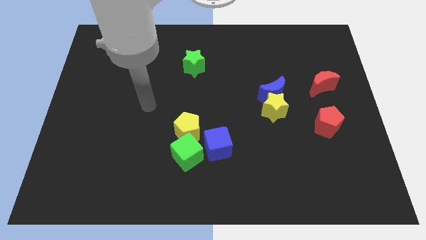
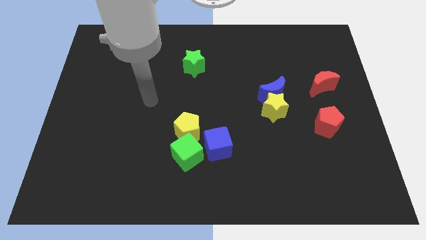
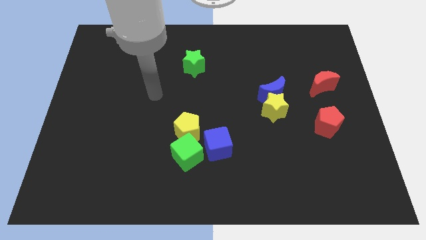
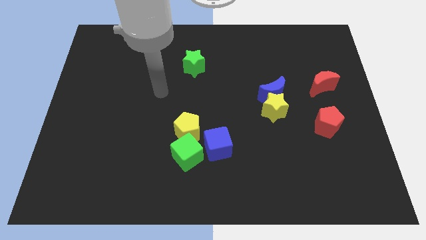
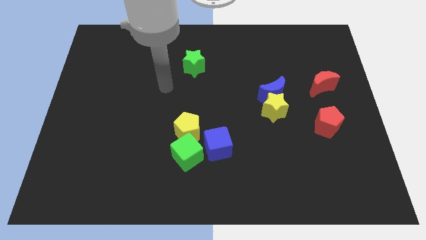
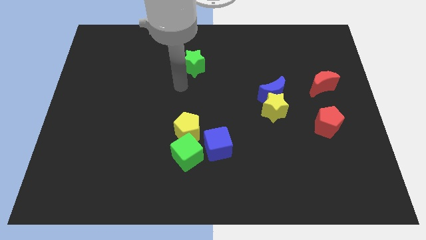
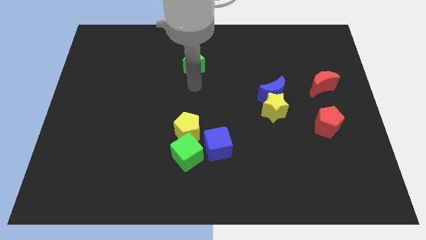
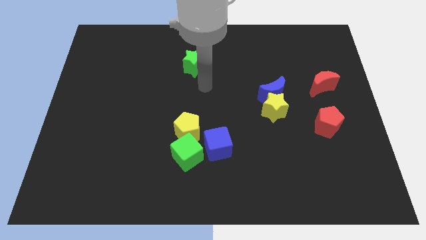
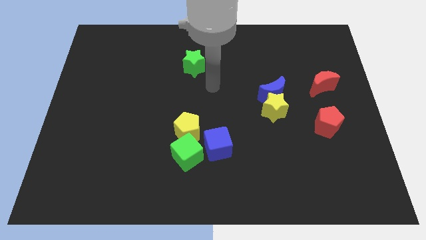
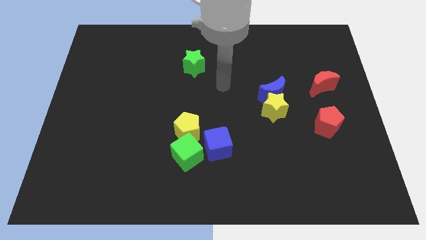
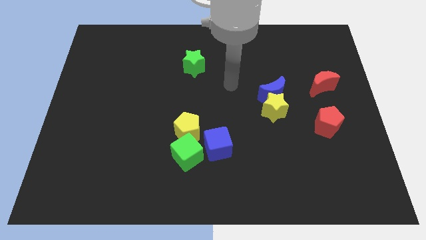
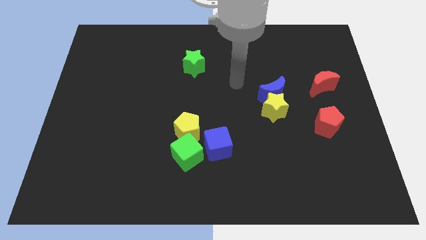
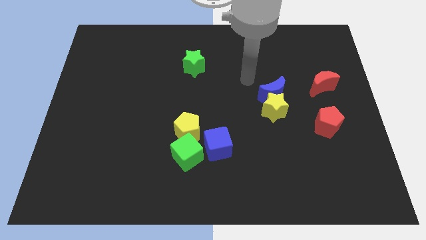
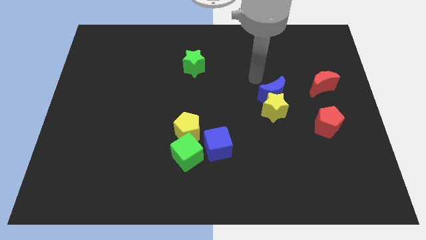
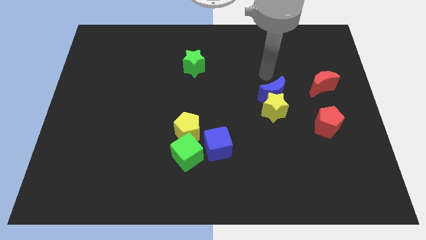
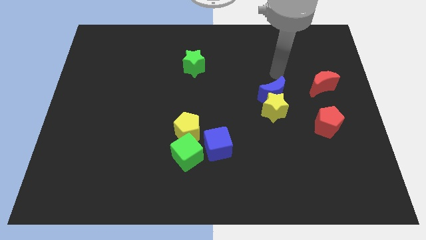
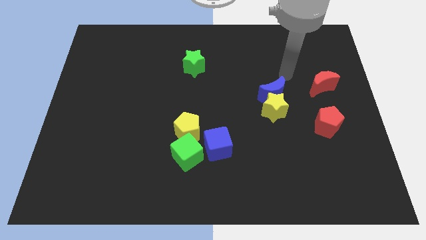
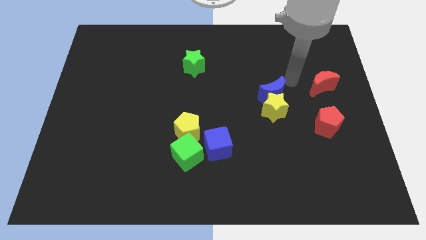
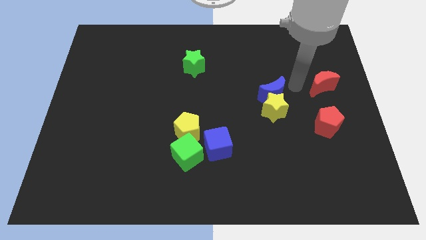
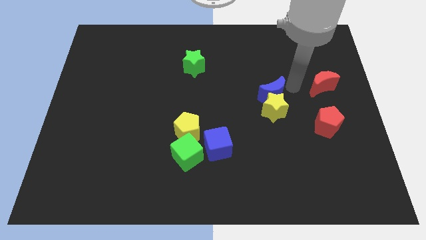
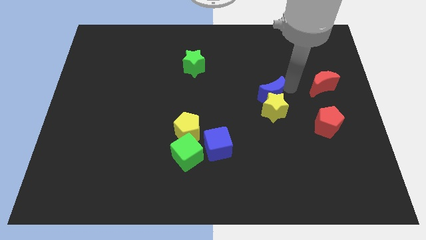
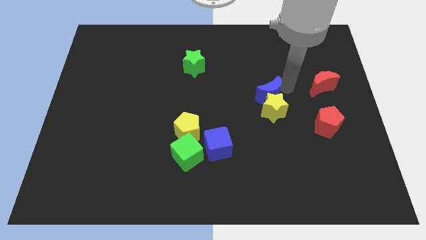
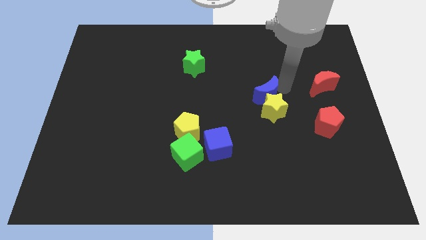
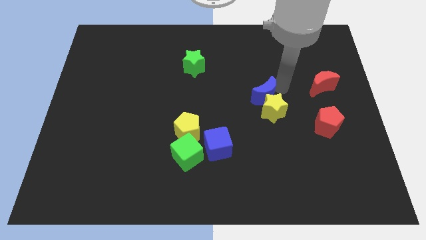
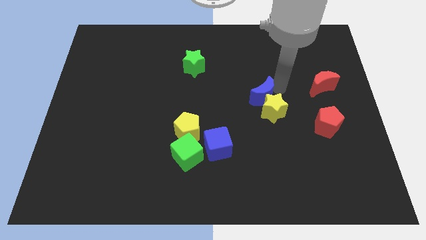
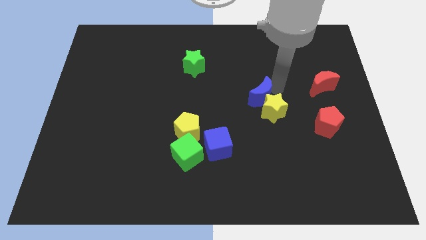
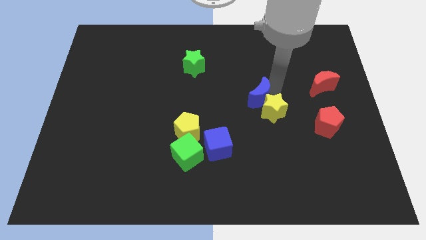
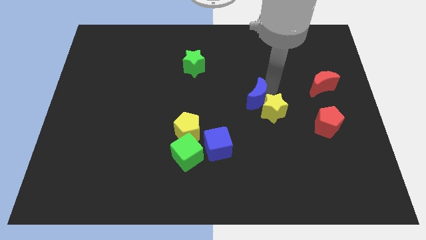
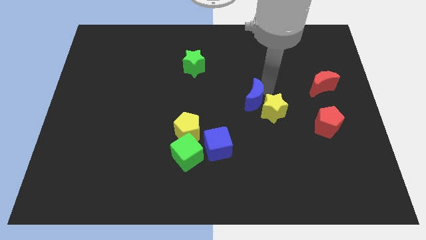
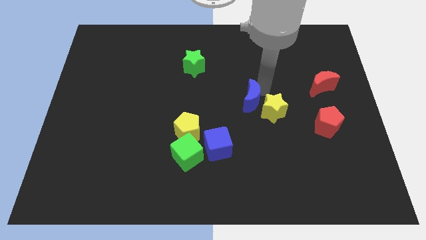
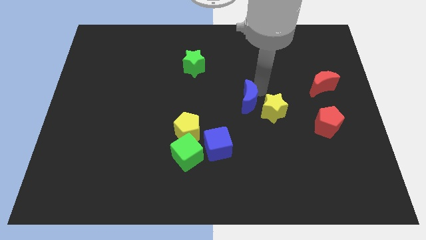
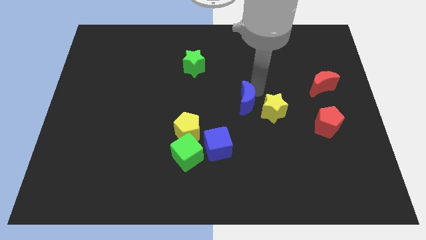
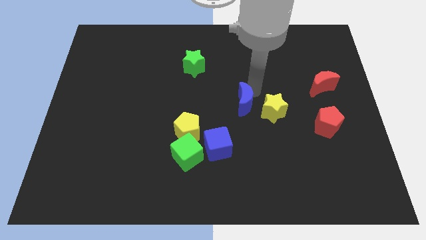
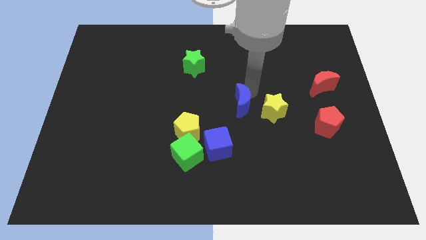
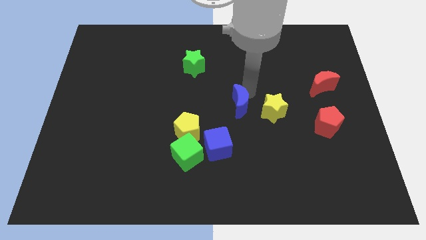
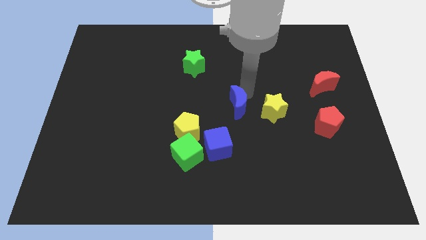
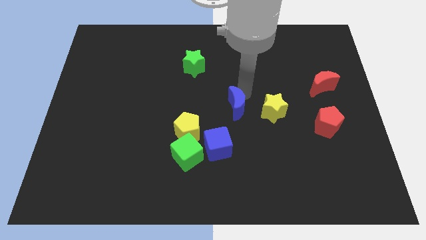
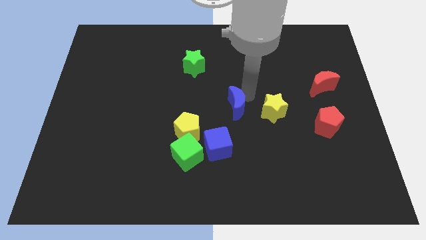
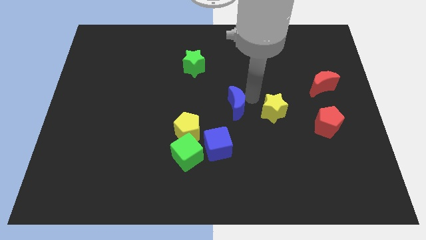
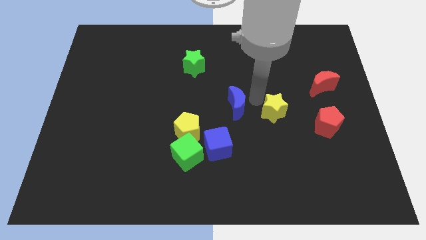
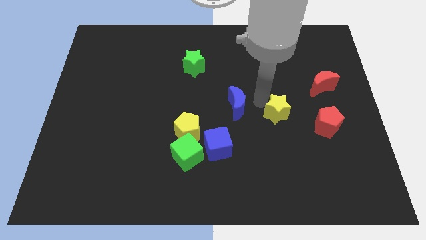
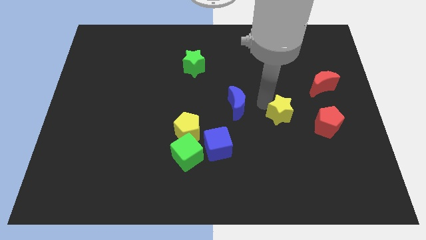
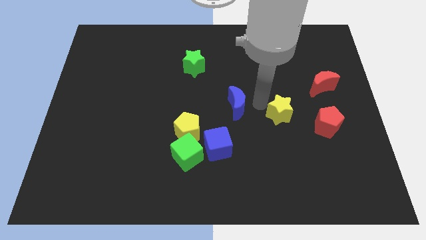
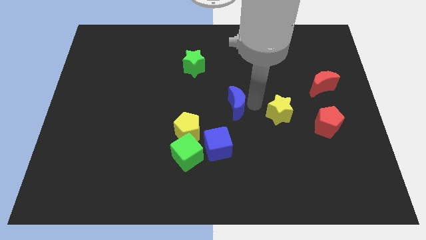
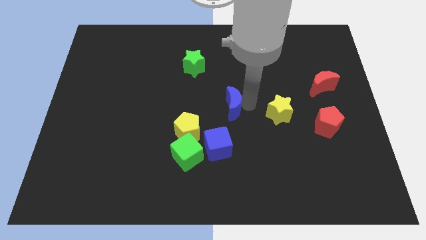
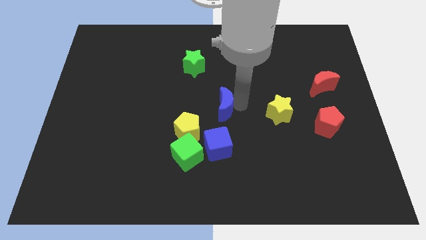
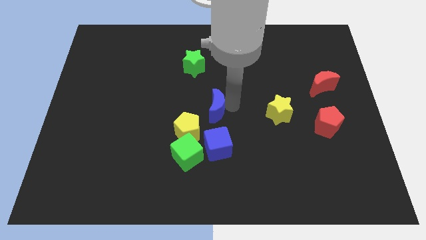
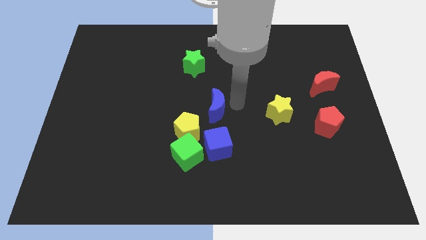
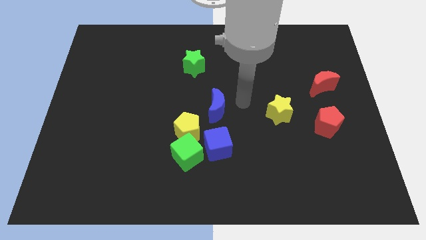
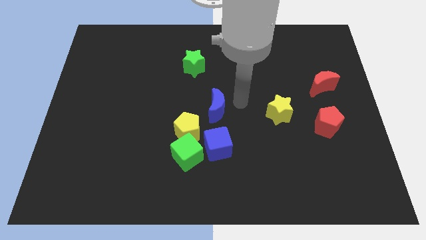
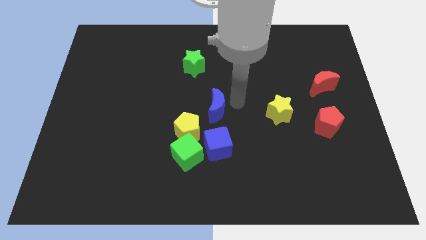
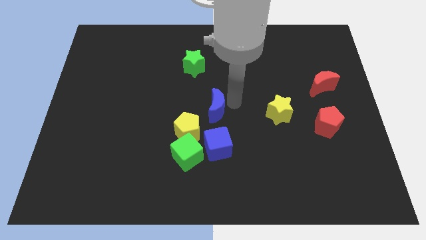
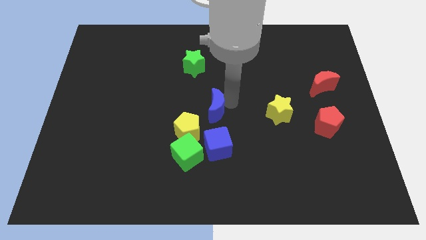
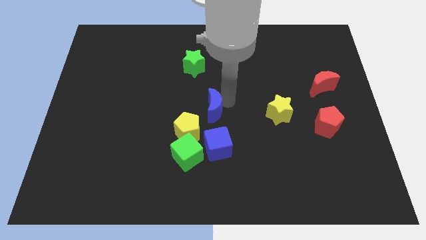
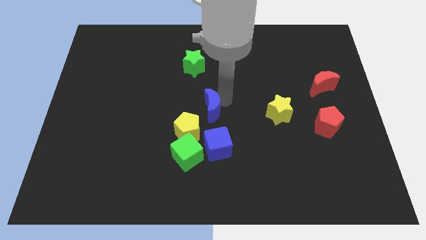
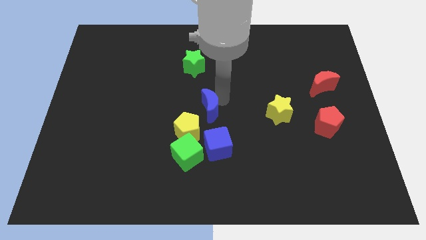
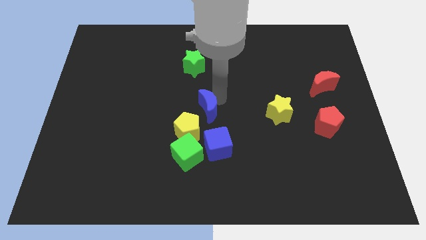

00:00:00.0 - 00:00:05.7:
put the blue moon to the top of the green cube

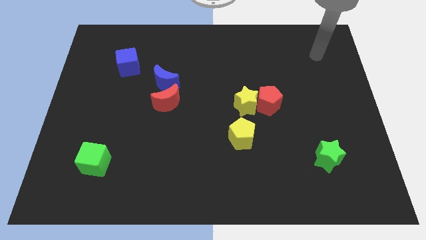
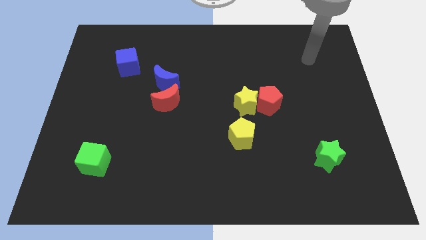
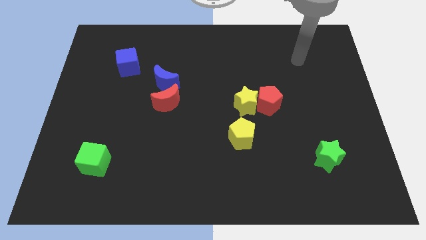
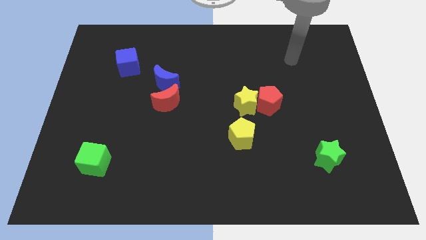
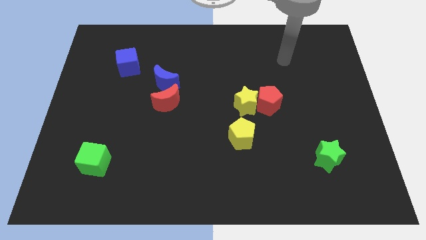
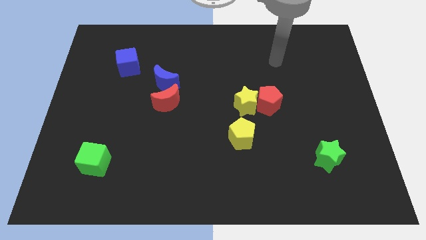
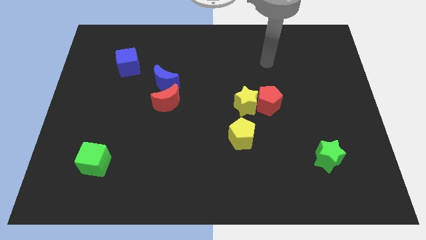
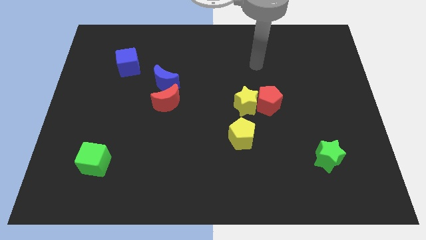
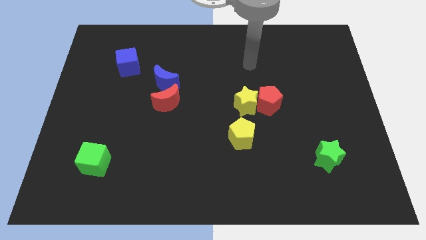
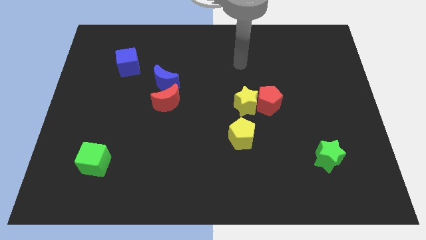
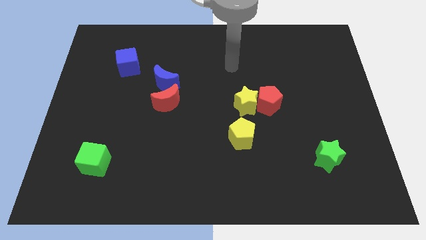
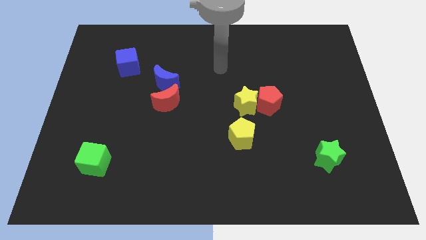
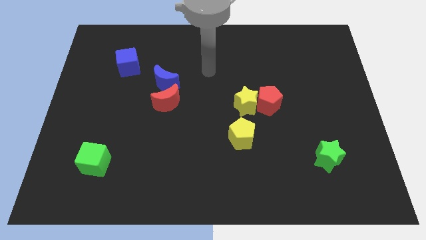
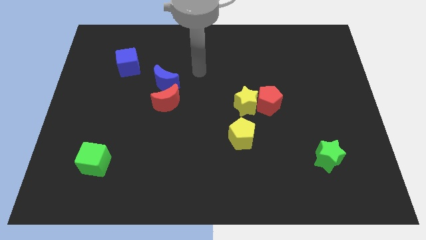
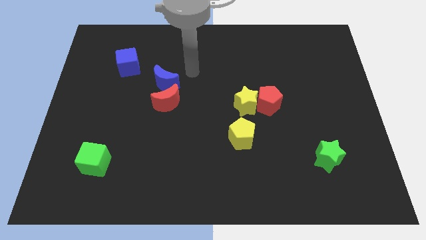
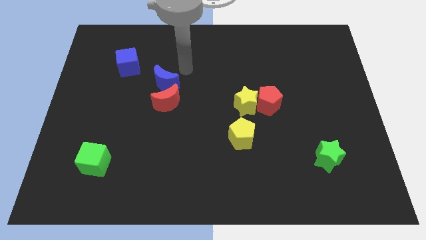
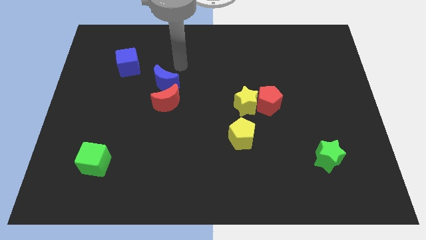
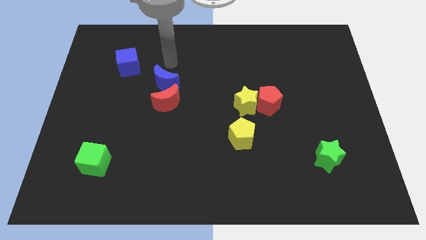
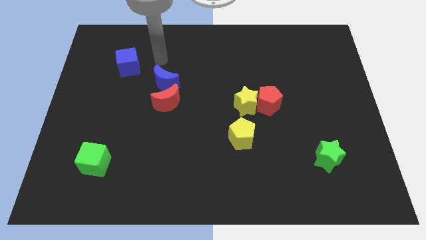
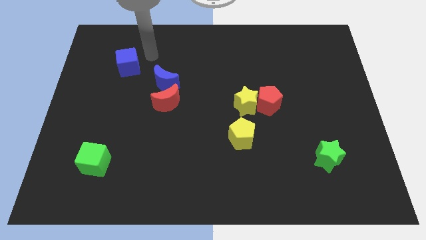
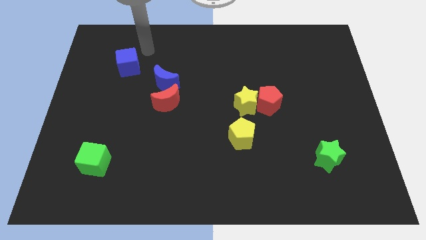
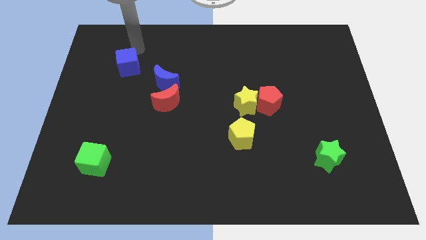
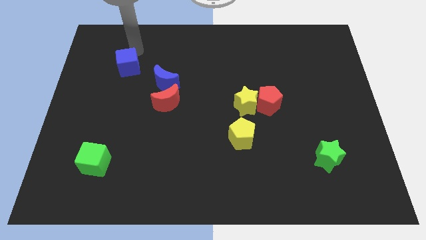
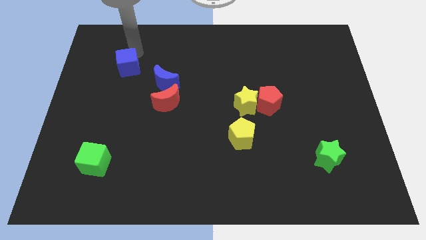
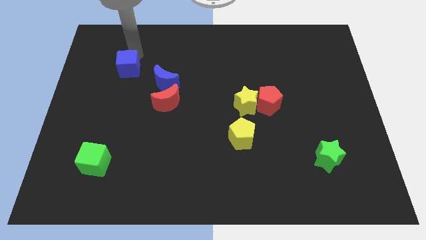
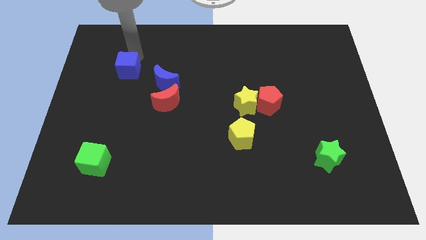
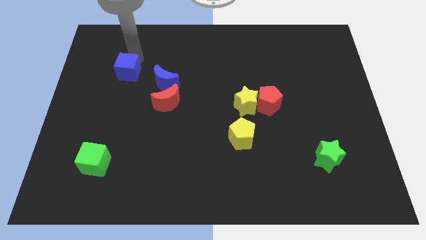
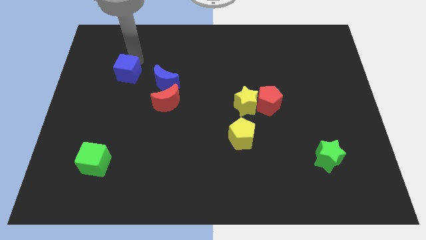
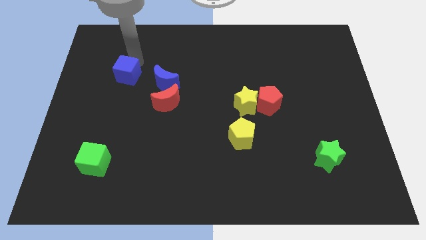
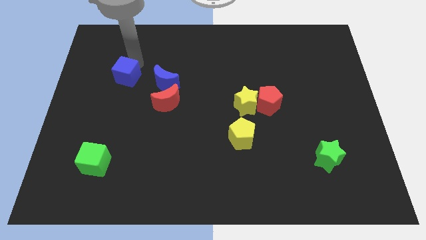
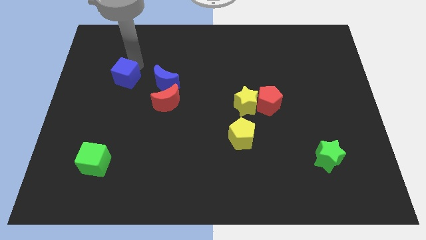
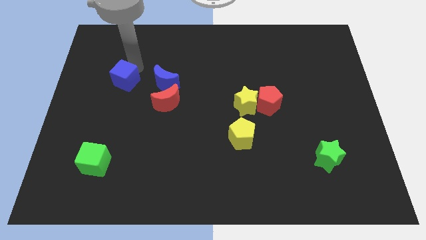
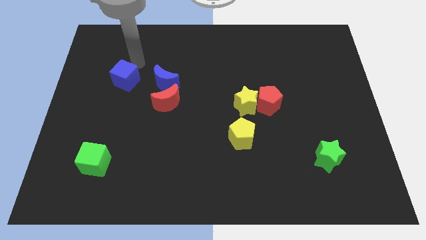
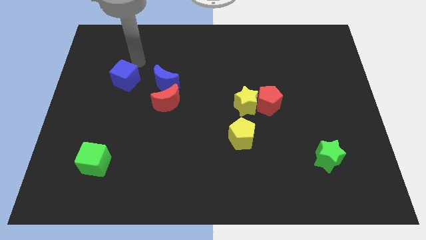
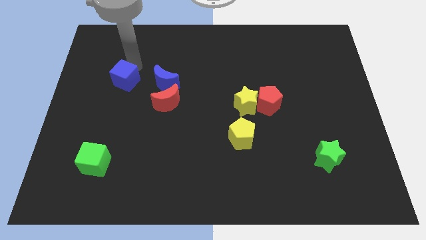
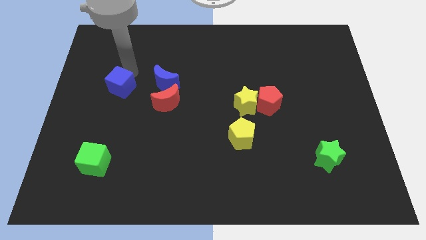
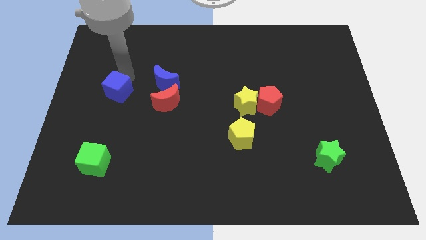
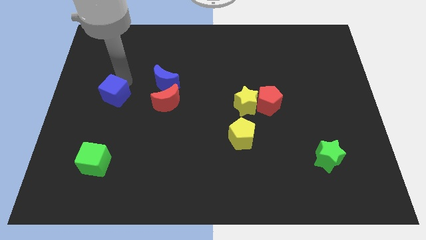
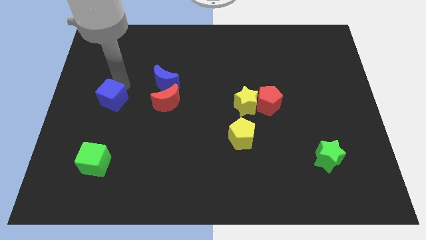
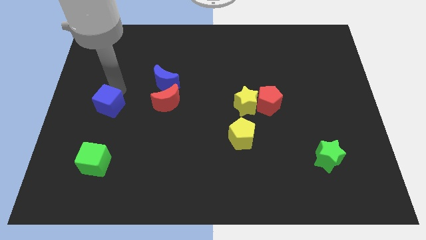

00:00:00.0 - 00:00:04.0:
push the blue cube above the green cube
